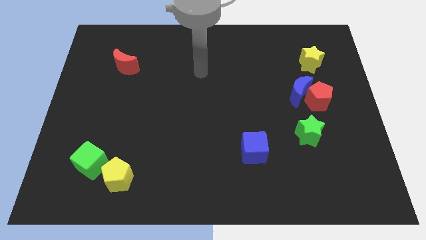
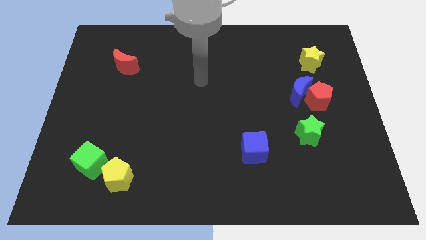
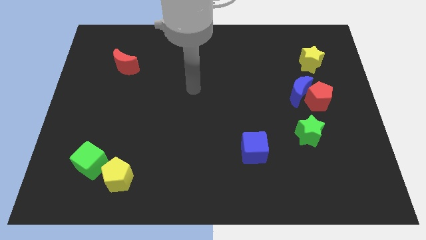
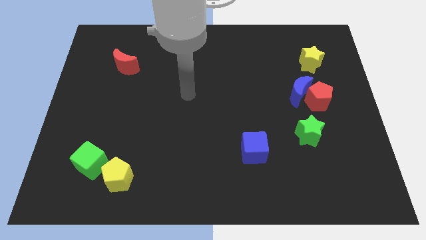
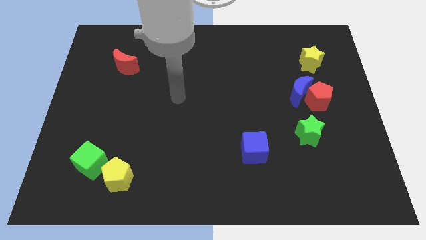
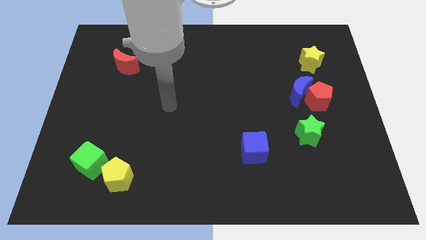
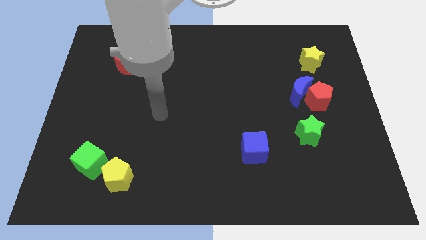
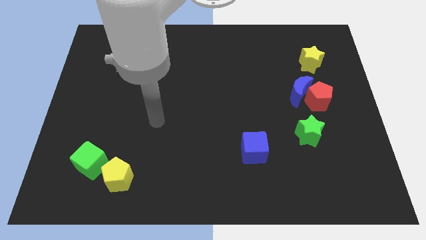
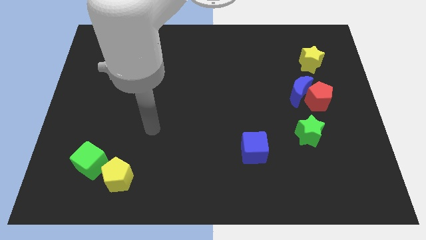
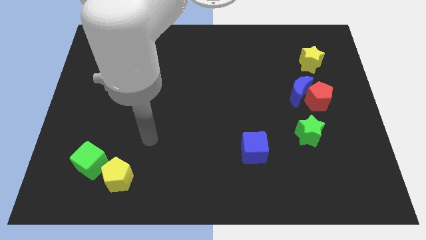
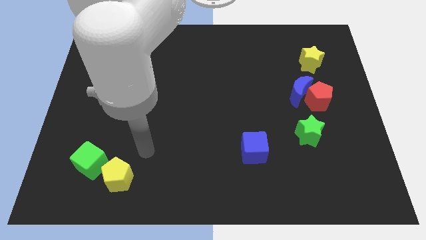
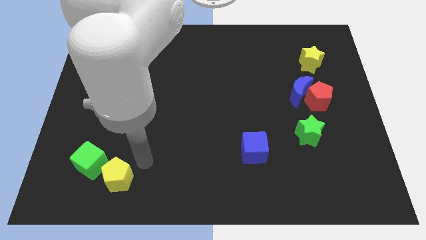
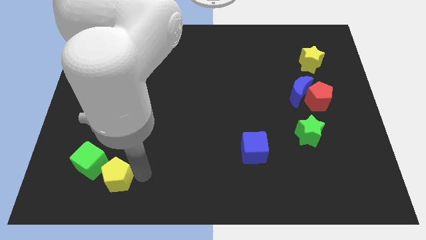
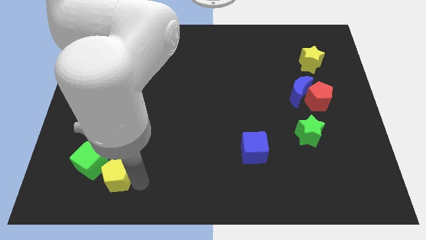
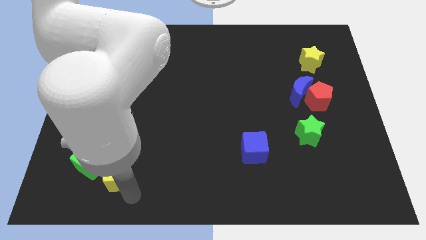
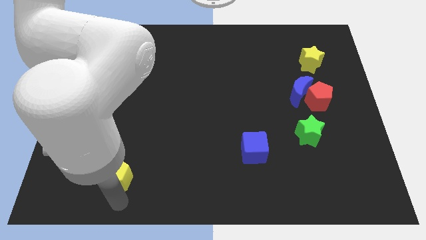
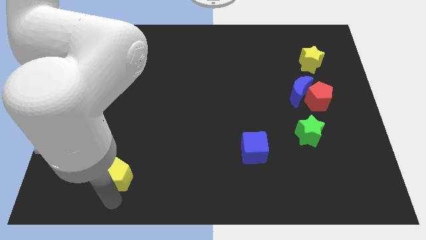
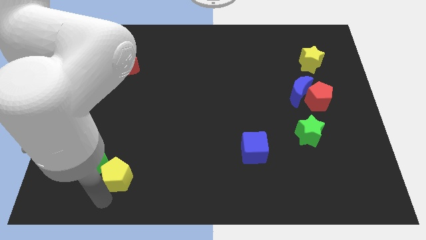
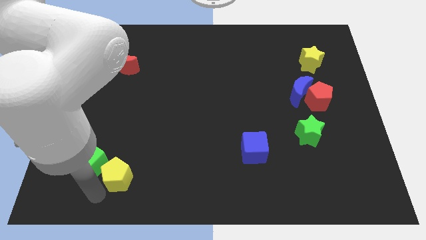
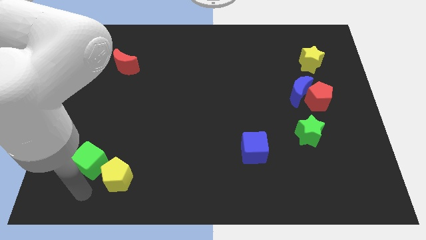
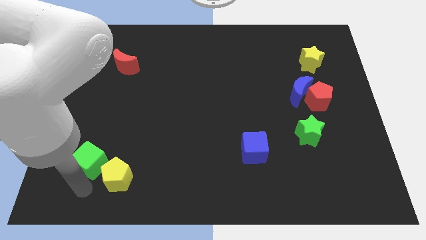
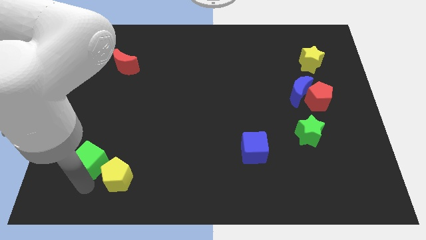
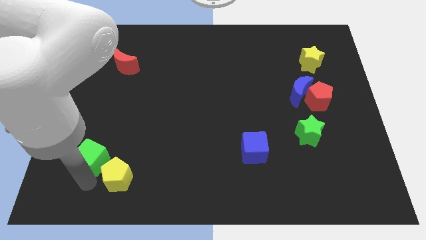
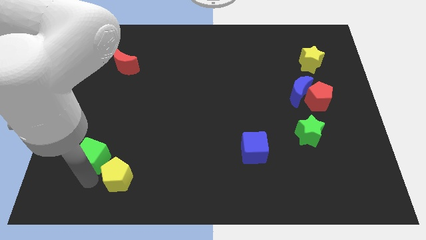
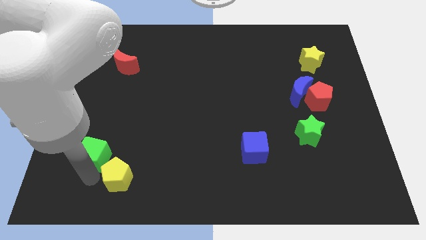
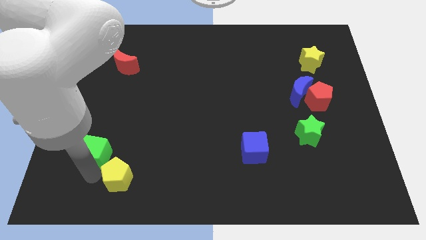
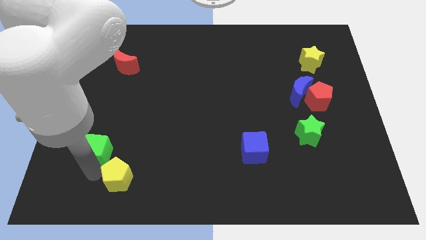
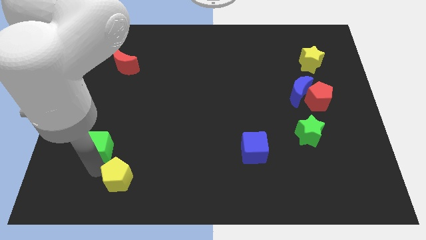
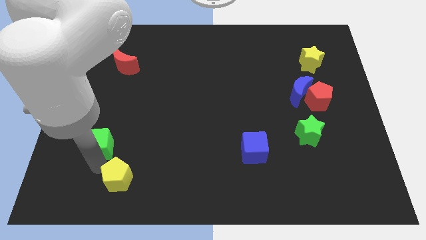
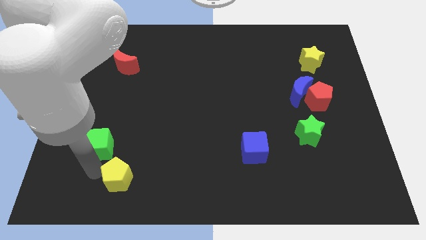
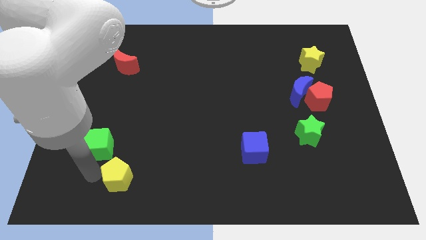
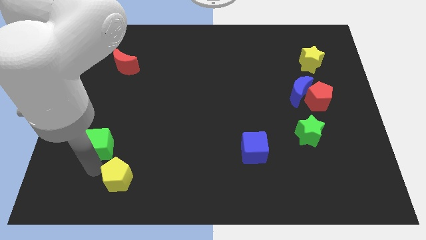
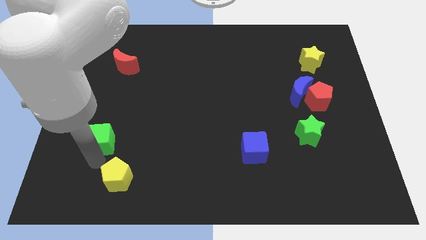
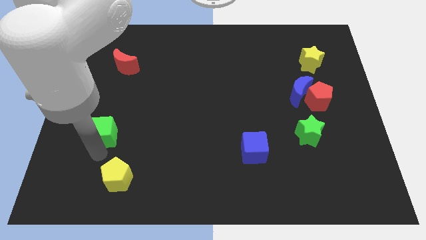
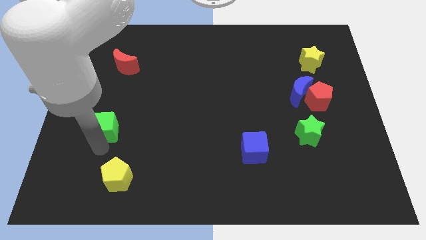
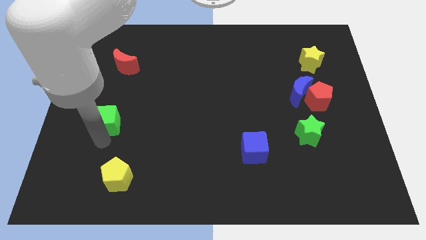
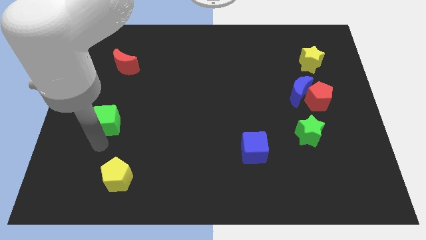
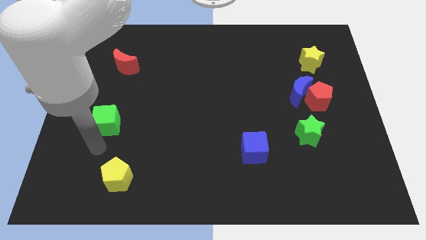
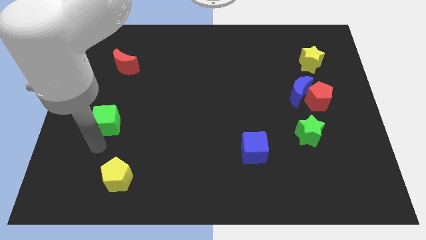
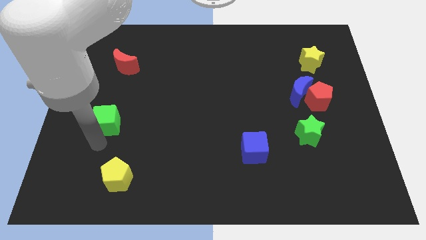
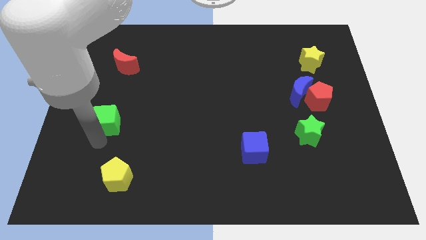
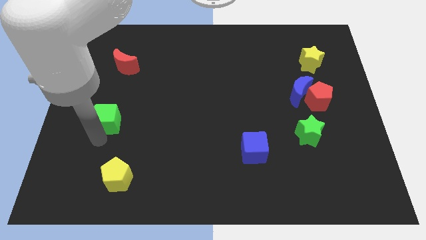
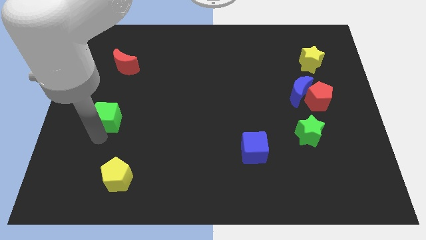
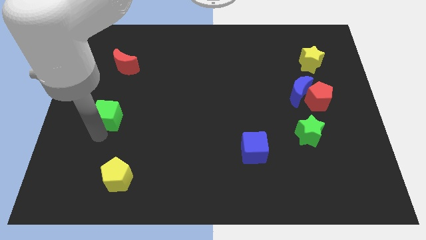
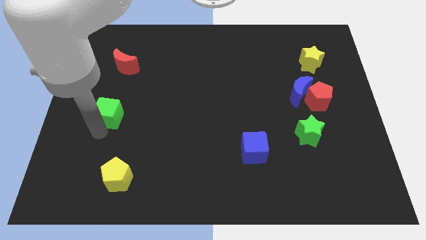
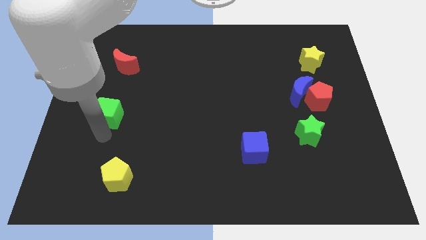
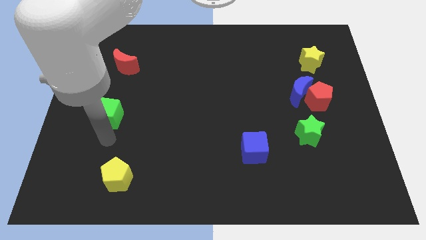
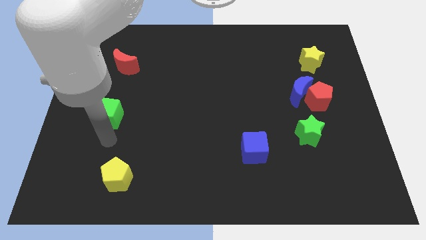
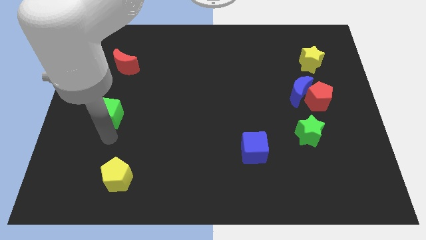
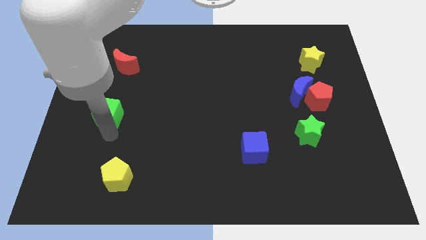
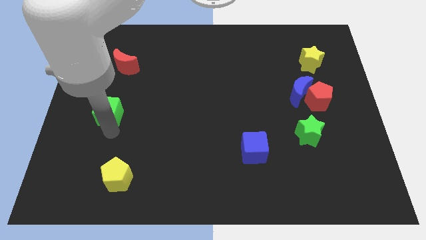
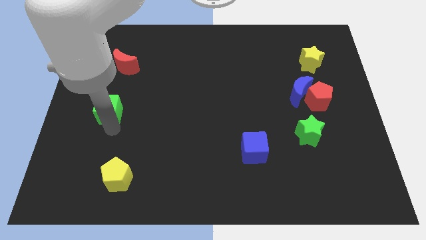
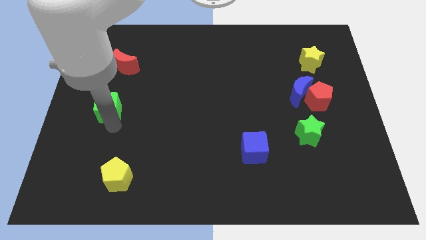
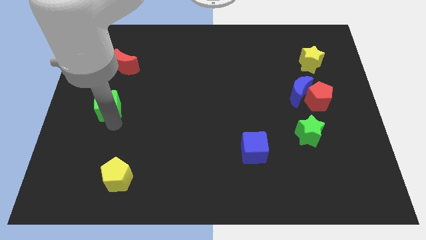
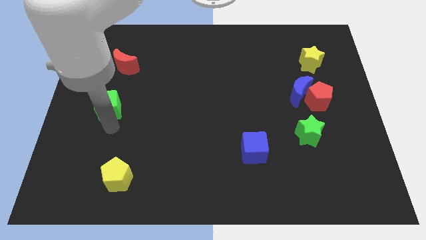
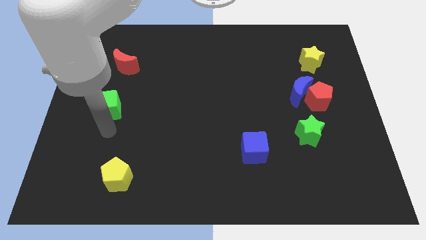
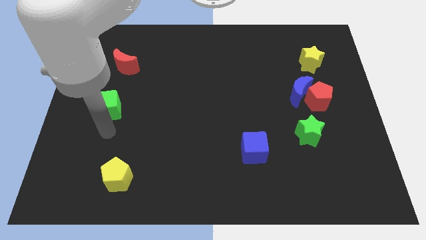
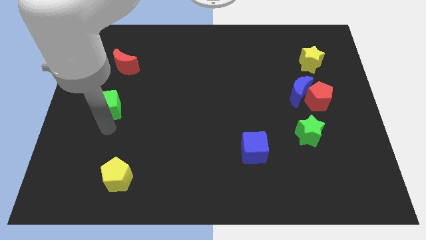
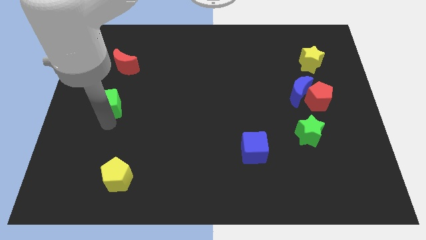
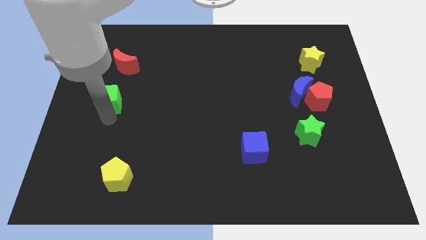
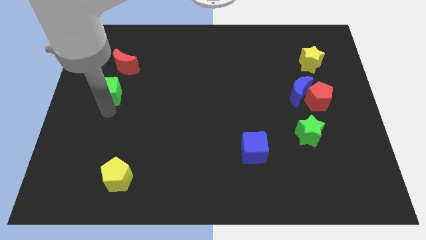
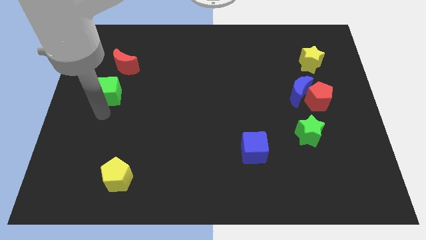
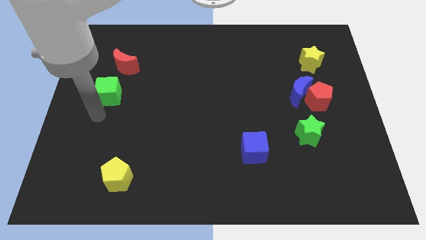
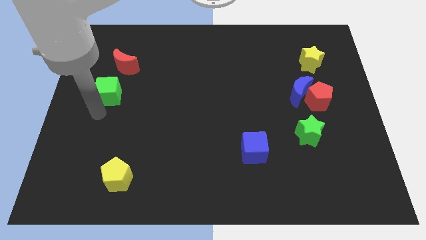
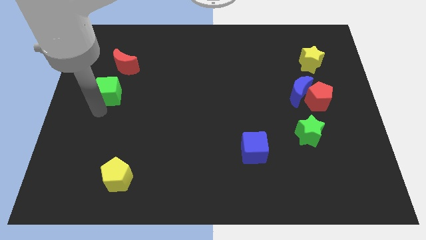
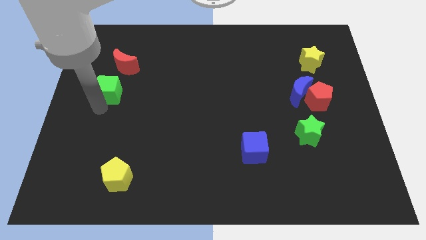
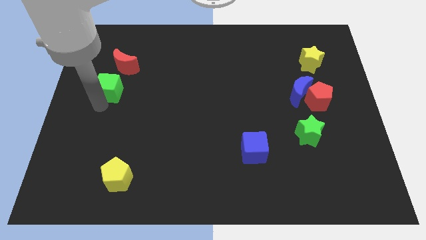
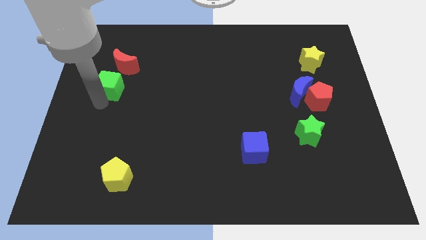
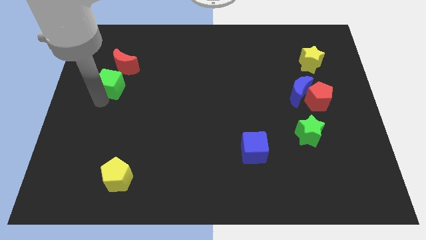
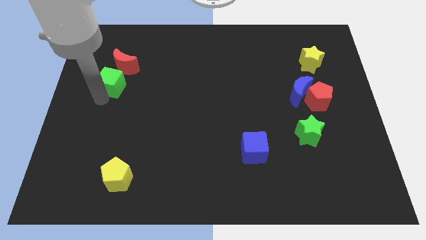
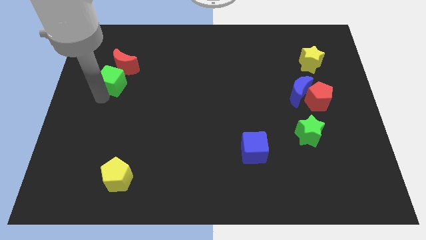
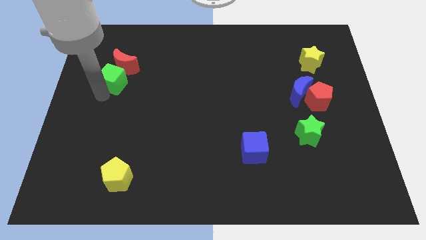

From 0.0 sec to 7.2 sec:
push the green cube next to the red moon

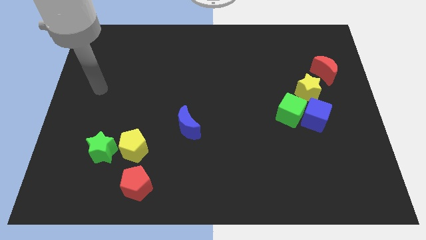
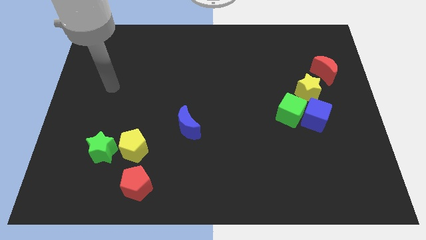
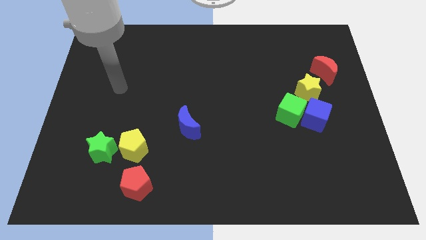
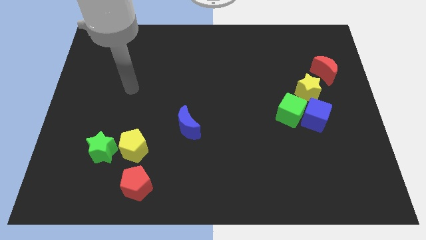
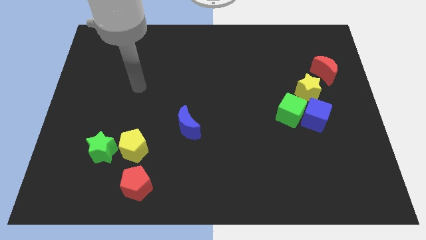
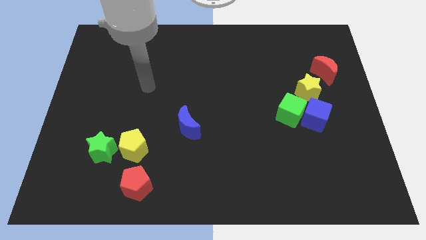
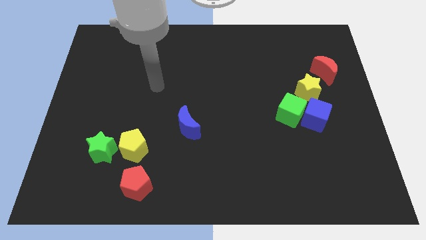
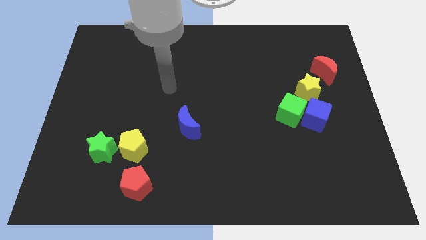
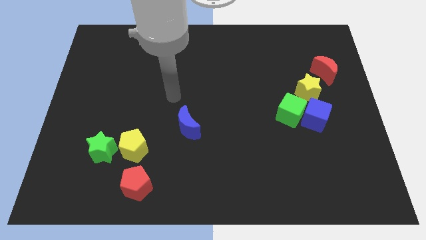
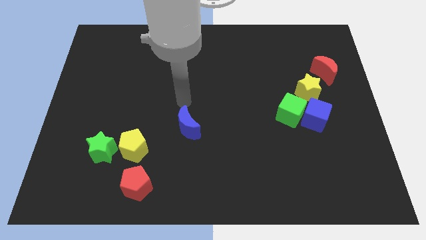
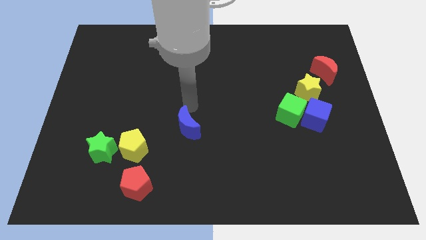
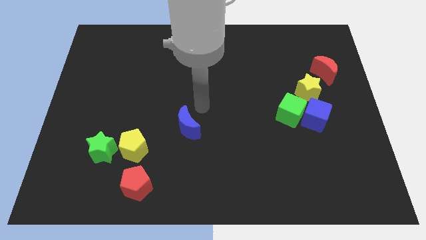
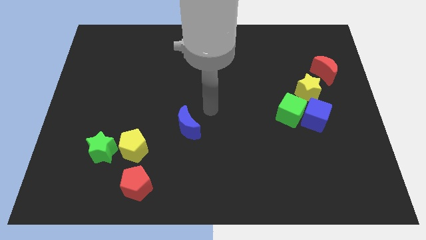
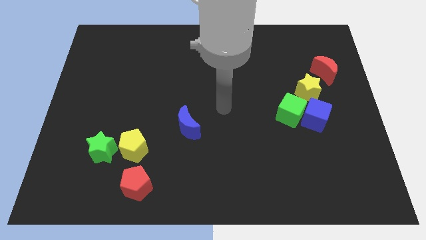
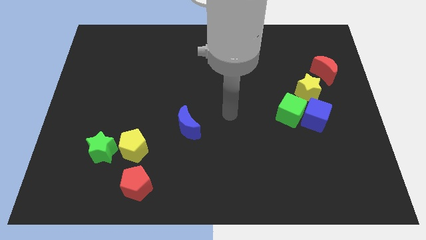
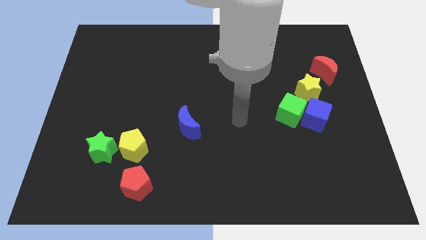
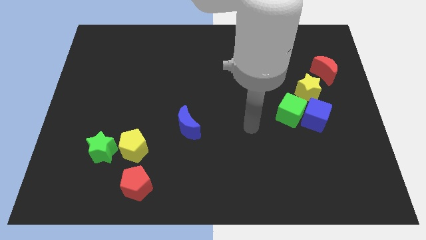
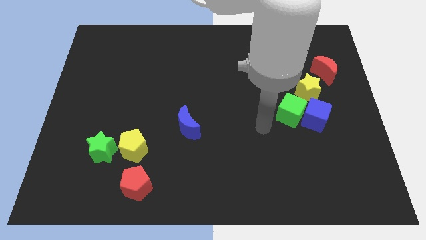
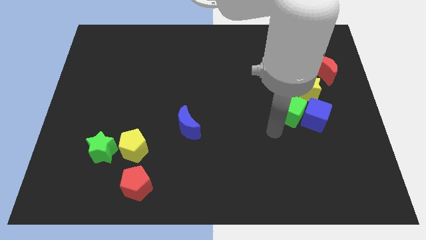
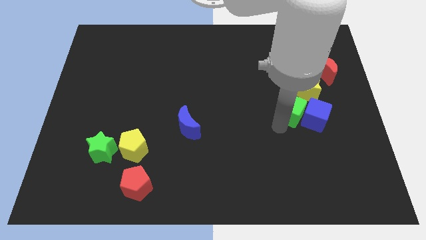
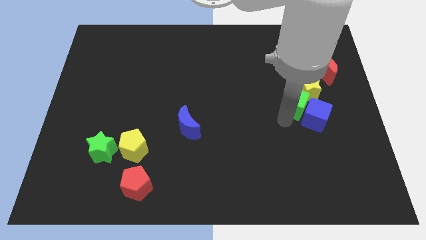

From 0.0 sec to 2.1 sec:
slide the green cube to the yellow star
